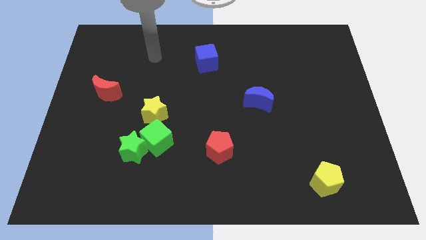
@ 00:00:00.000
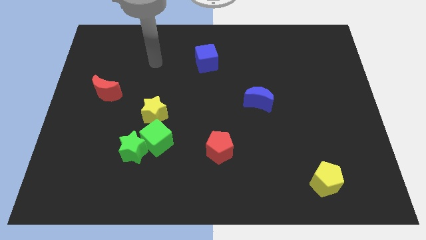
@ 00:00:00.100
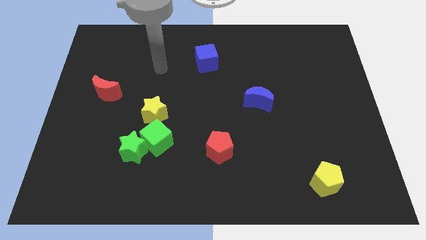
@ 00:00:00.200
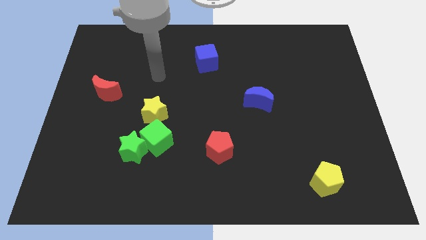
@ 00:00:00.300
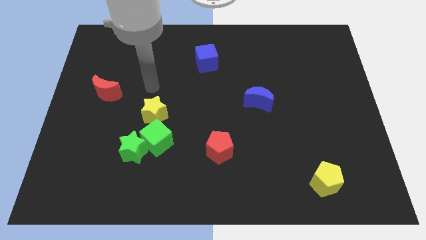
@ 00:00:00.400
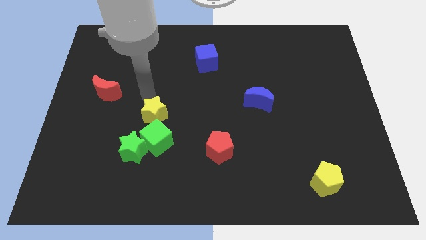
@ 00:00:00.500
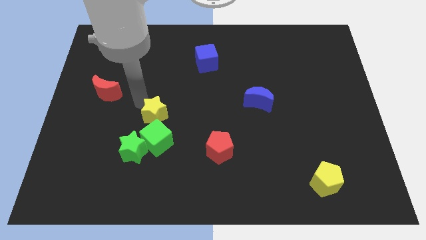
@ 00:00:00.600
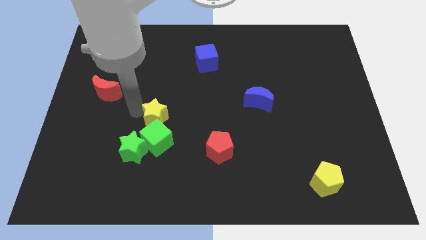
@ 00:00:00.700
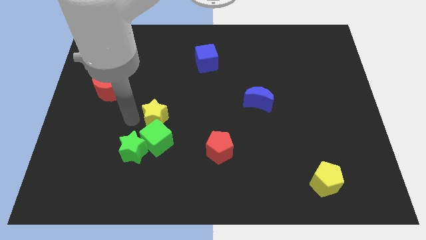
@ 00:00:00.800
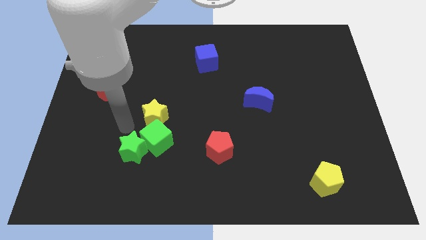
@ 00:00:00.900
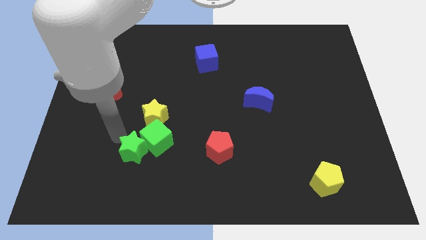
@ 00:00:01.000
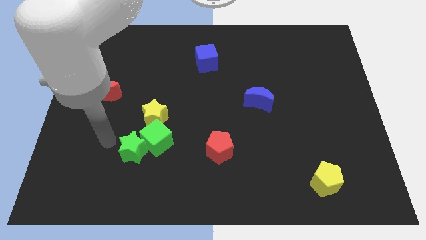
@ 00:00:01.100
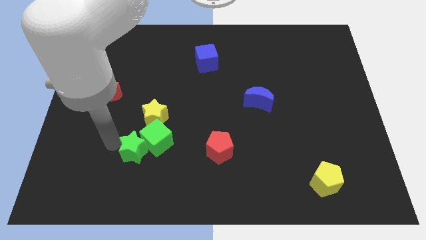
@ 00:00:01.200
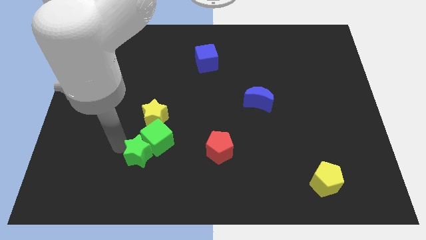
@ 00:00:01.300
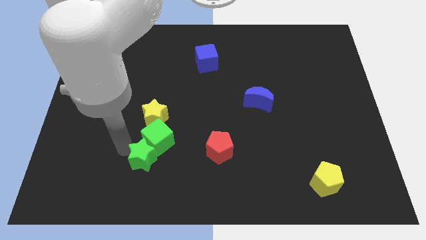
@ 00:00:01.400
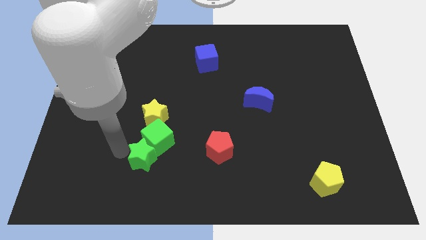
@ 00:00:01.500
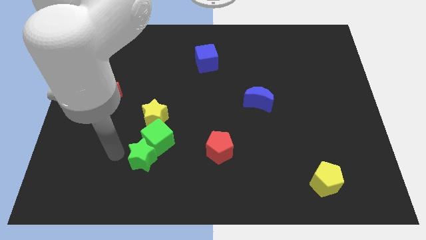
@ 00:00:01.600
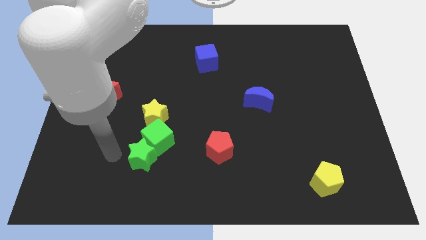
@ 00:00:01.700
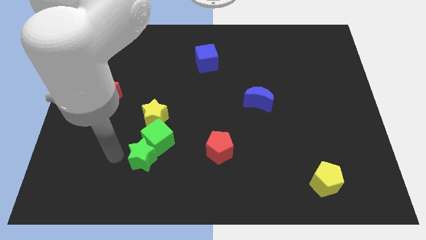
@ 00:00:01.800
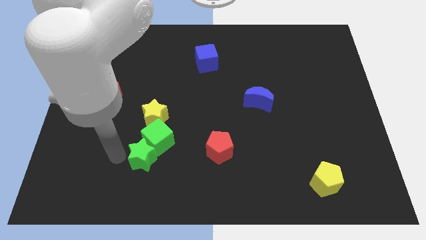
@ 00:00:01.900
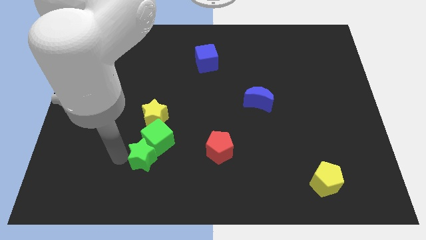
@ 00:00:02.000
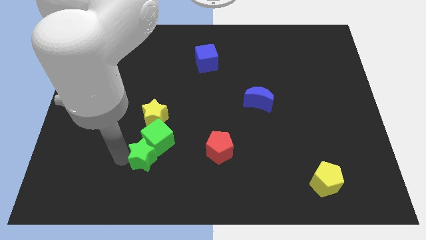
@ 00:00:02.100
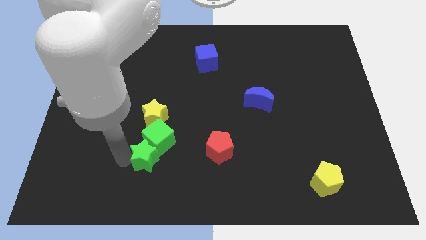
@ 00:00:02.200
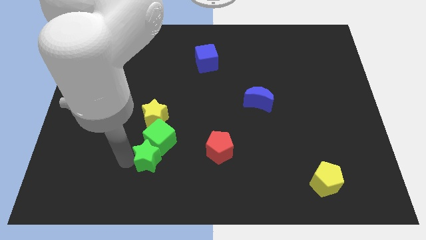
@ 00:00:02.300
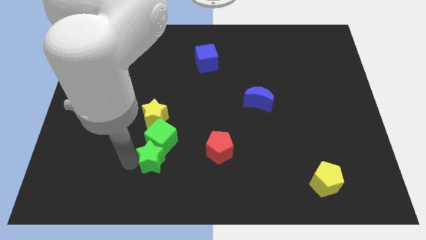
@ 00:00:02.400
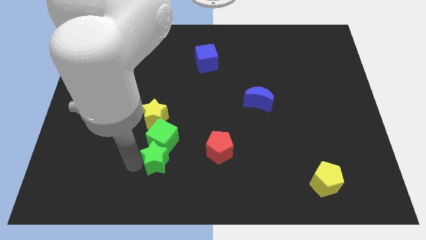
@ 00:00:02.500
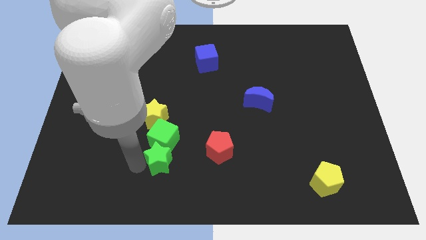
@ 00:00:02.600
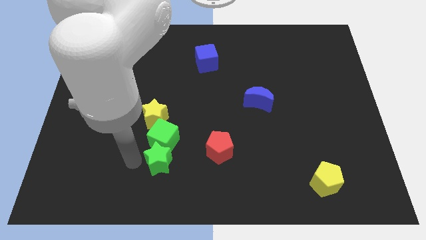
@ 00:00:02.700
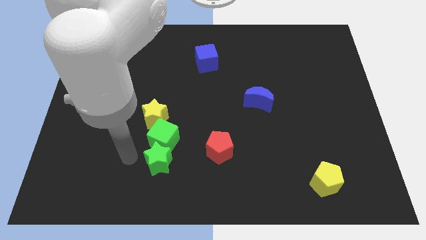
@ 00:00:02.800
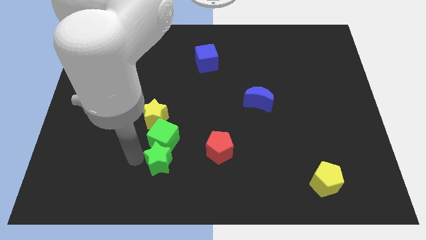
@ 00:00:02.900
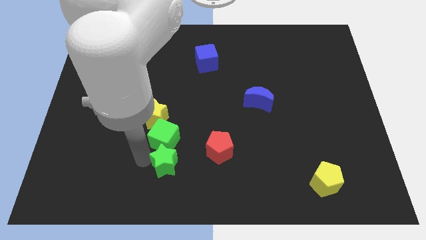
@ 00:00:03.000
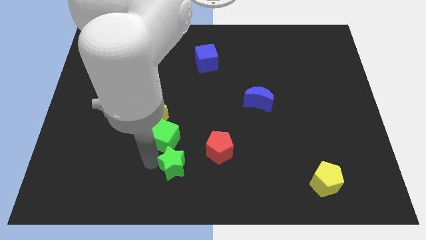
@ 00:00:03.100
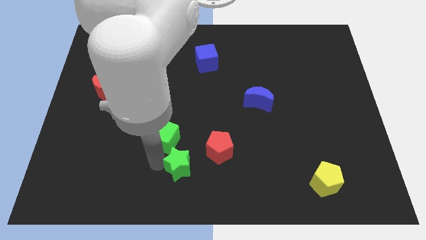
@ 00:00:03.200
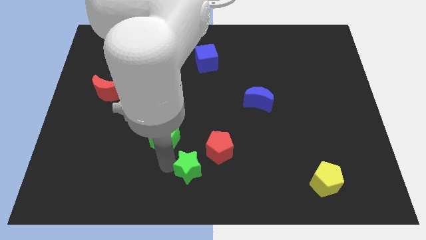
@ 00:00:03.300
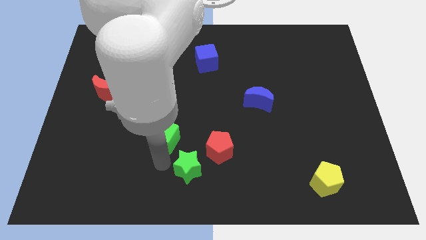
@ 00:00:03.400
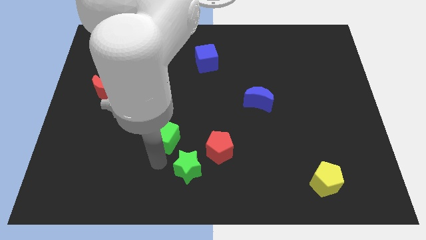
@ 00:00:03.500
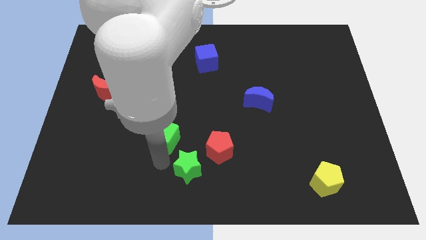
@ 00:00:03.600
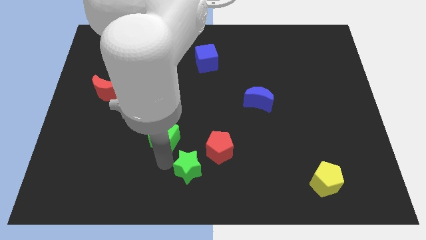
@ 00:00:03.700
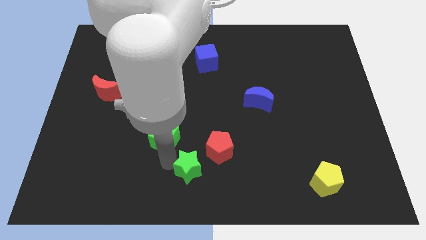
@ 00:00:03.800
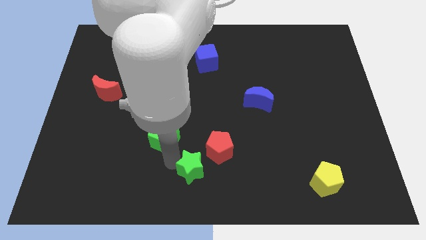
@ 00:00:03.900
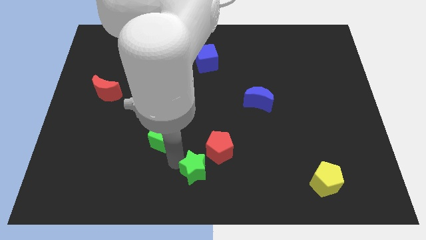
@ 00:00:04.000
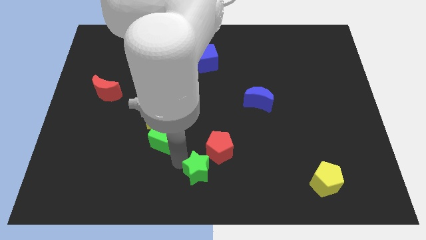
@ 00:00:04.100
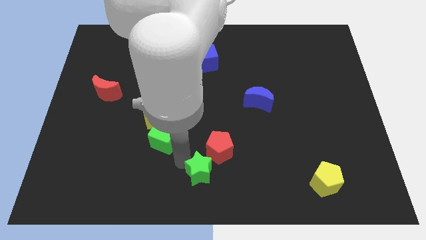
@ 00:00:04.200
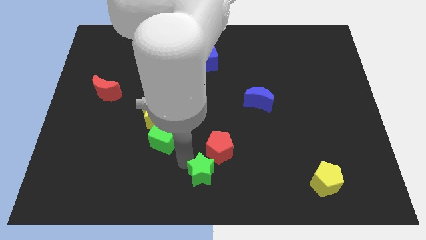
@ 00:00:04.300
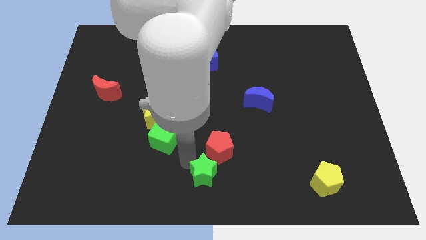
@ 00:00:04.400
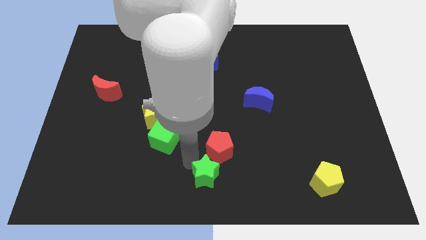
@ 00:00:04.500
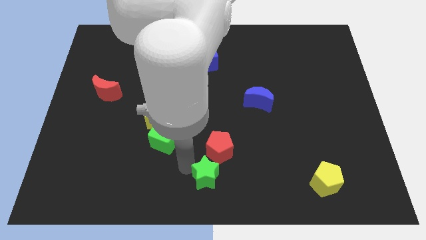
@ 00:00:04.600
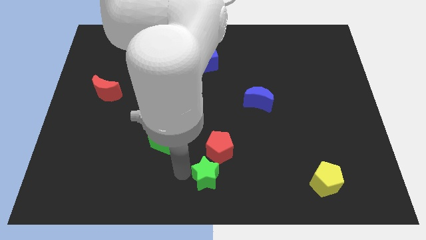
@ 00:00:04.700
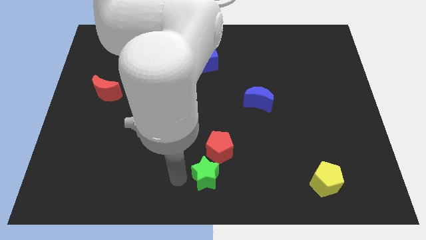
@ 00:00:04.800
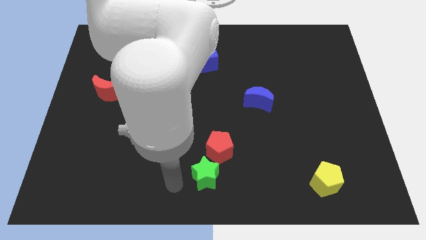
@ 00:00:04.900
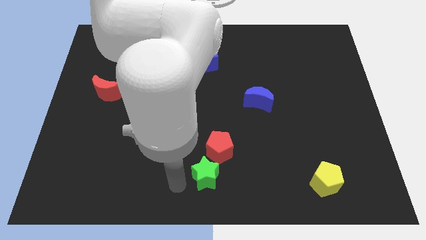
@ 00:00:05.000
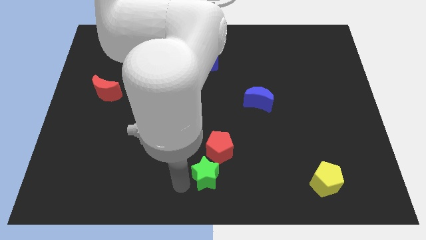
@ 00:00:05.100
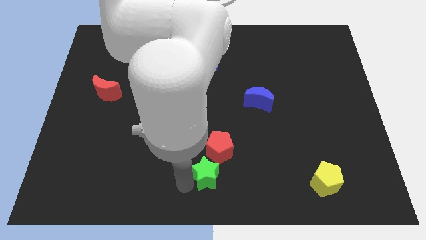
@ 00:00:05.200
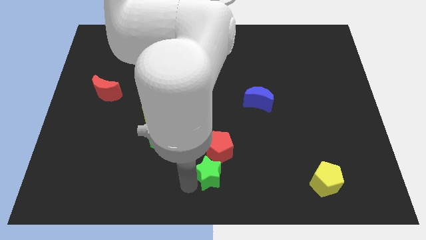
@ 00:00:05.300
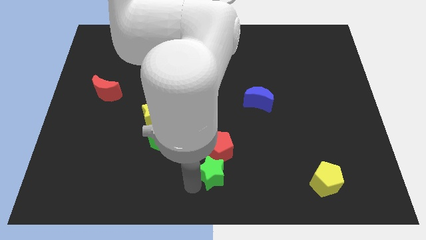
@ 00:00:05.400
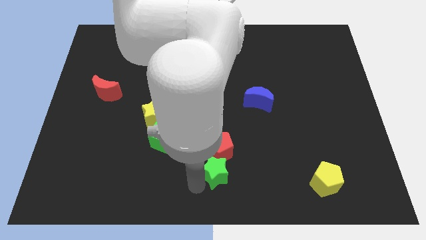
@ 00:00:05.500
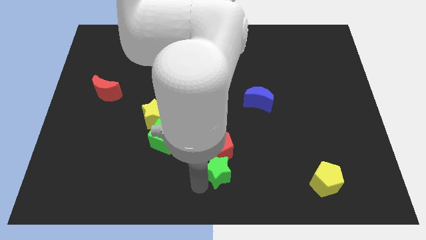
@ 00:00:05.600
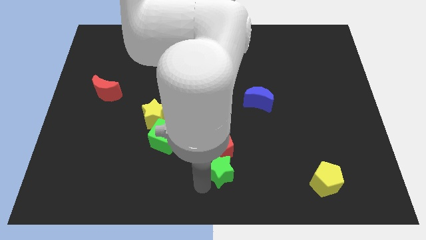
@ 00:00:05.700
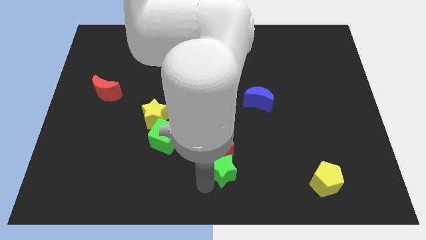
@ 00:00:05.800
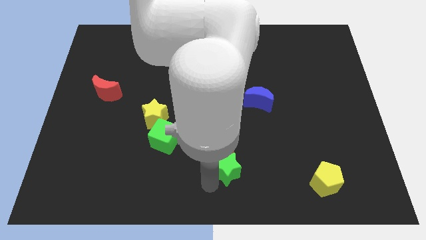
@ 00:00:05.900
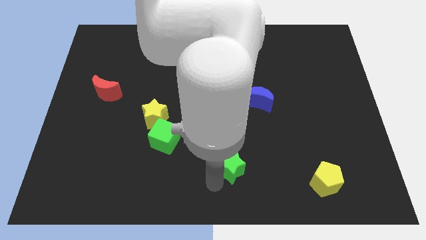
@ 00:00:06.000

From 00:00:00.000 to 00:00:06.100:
move the green star right

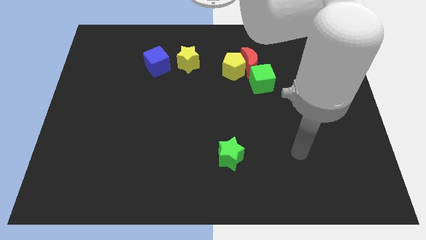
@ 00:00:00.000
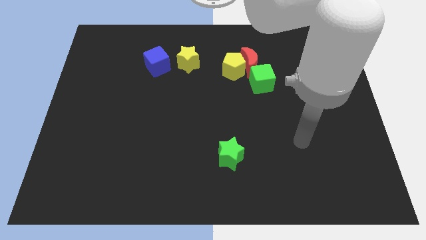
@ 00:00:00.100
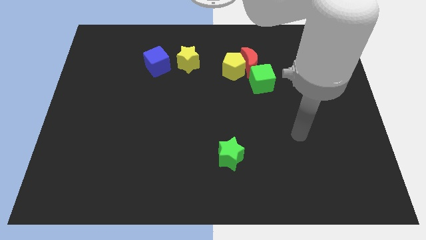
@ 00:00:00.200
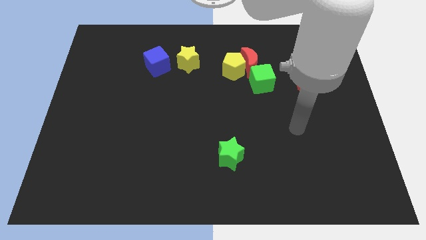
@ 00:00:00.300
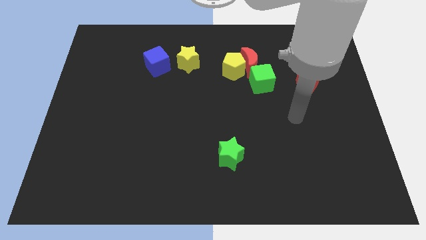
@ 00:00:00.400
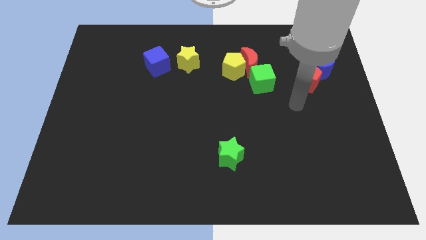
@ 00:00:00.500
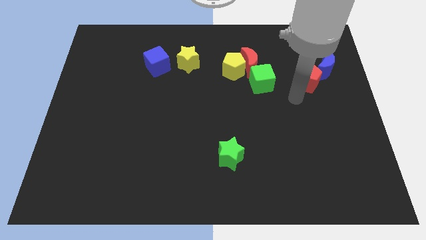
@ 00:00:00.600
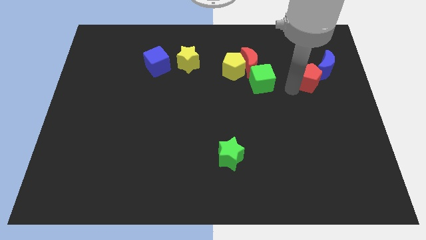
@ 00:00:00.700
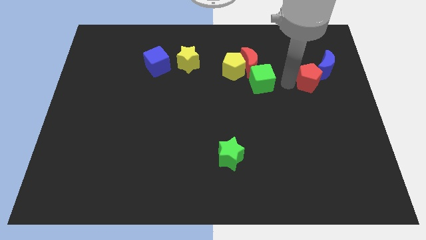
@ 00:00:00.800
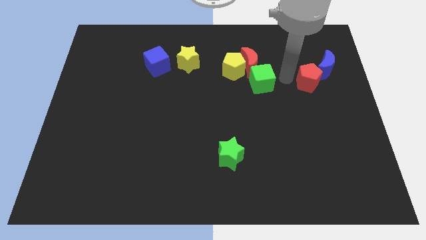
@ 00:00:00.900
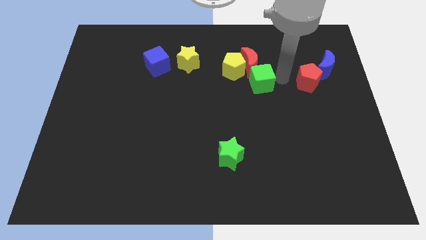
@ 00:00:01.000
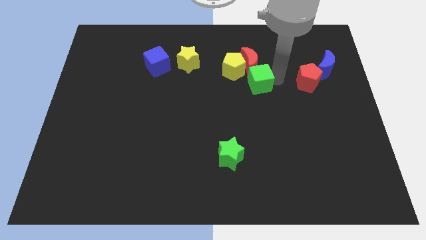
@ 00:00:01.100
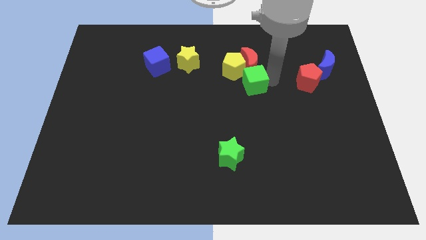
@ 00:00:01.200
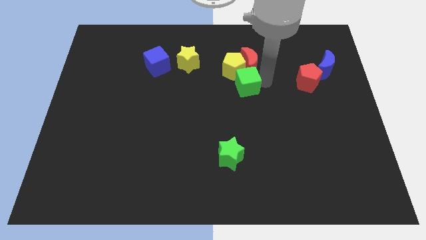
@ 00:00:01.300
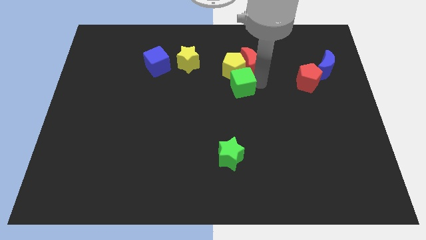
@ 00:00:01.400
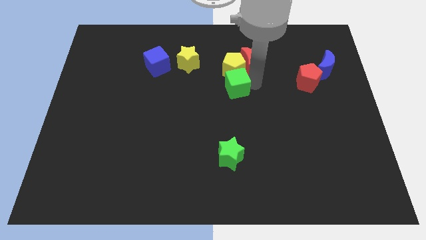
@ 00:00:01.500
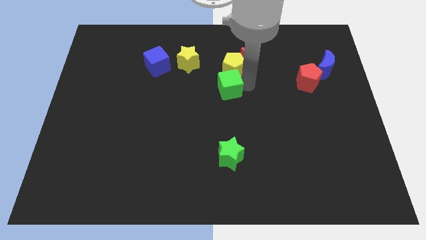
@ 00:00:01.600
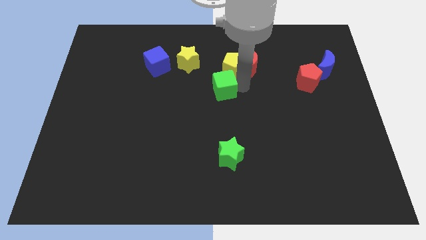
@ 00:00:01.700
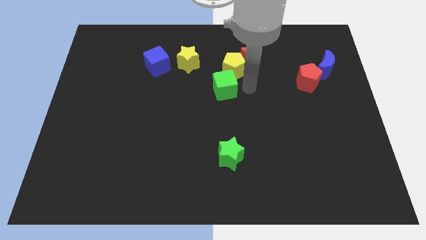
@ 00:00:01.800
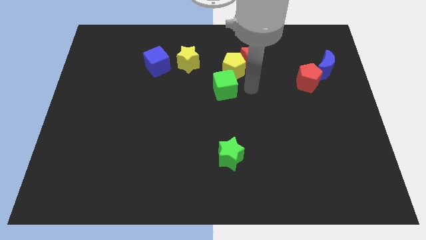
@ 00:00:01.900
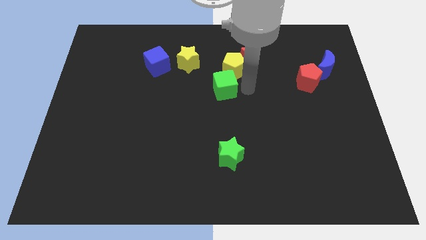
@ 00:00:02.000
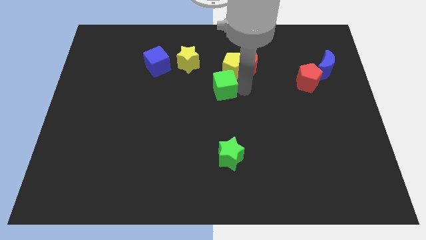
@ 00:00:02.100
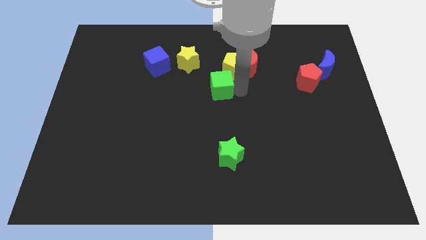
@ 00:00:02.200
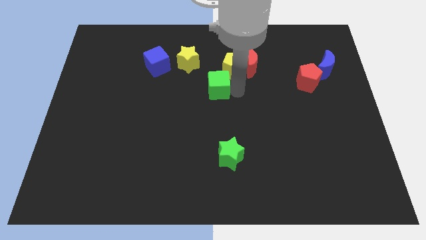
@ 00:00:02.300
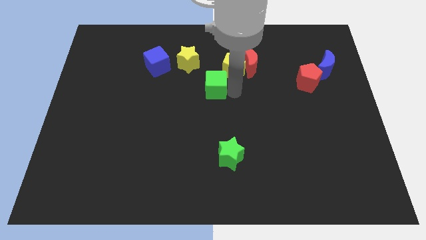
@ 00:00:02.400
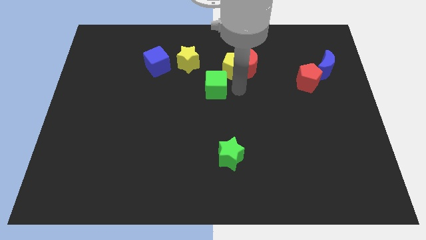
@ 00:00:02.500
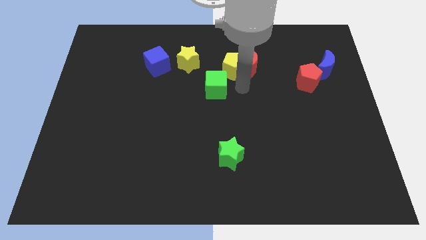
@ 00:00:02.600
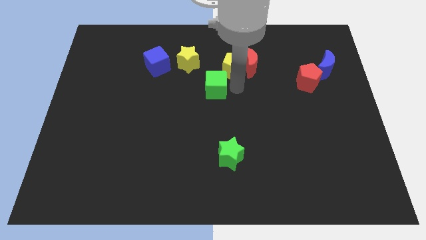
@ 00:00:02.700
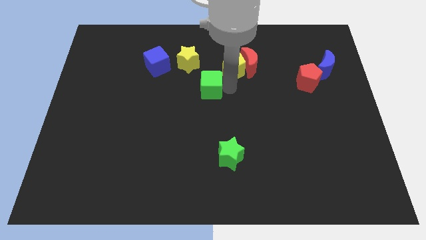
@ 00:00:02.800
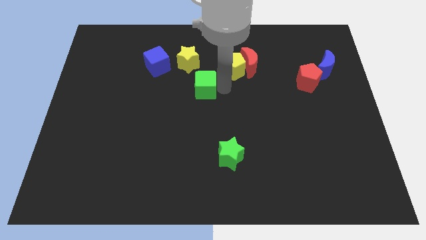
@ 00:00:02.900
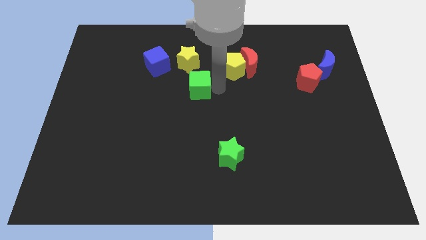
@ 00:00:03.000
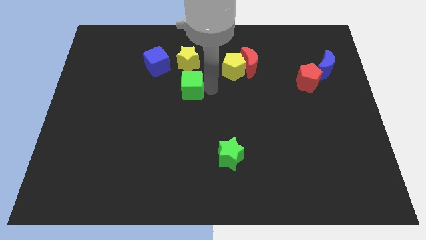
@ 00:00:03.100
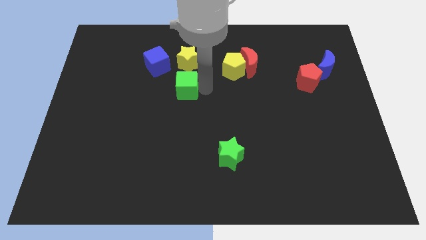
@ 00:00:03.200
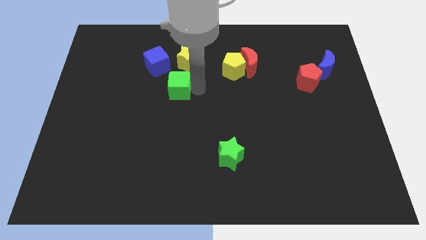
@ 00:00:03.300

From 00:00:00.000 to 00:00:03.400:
slide the green cube to the left
